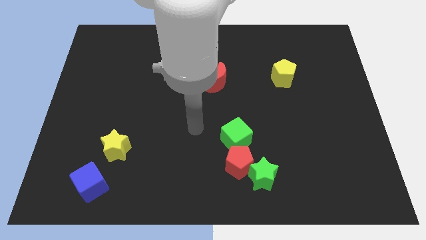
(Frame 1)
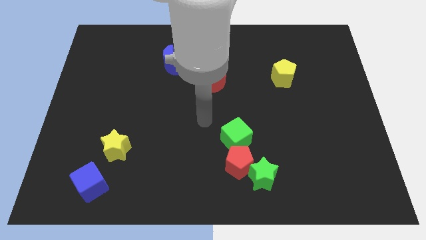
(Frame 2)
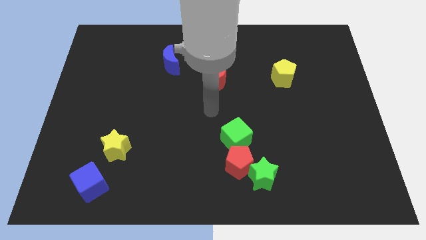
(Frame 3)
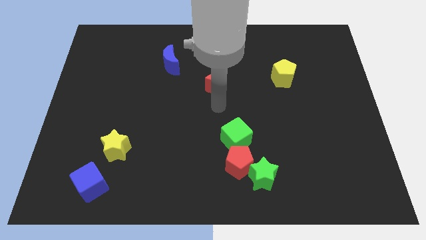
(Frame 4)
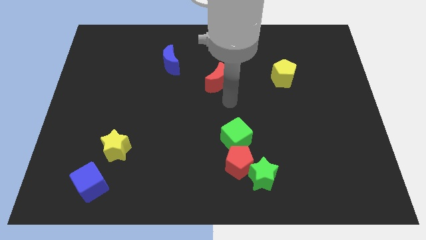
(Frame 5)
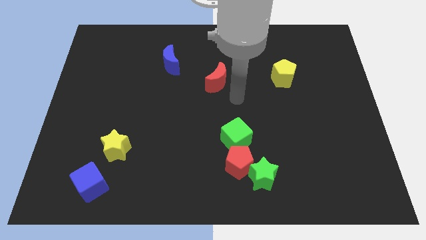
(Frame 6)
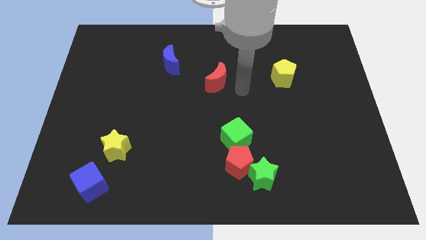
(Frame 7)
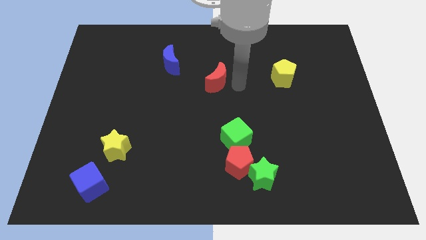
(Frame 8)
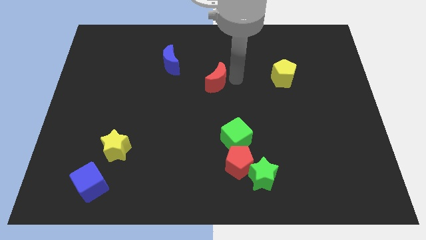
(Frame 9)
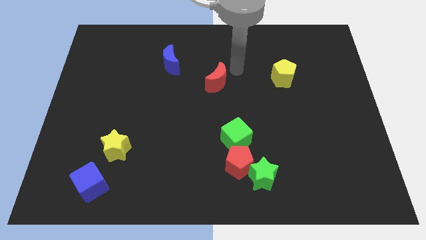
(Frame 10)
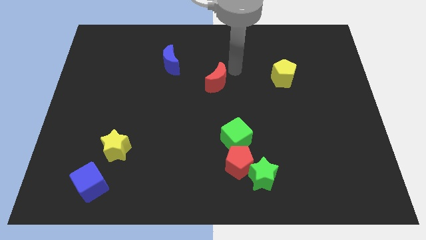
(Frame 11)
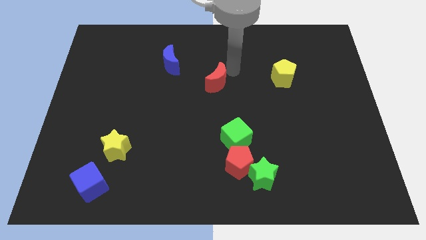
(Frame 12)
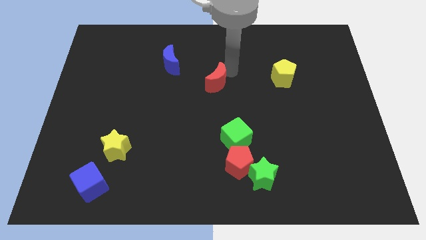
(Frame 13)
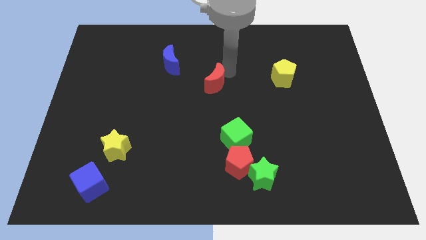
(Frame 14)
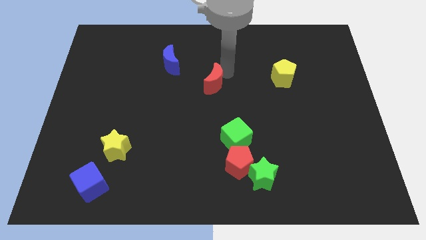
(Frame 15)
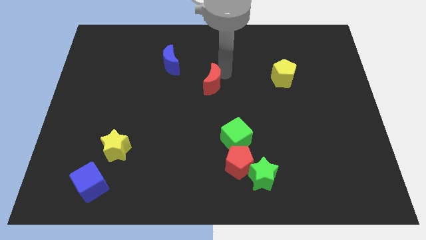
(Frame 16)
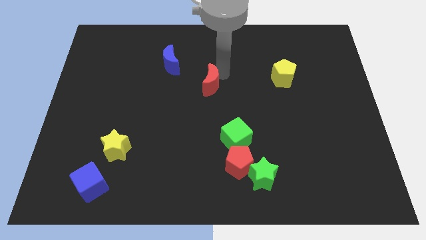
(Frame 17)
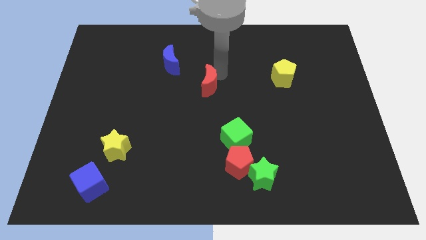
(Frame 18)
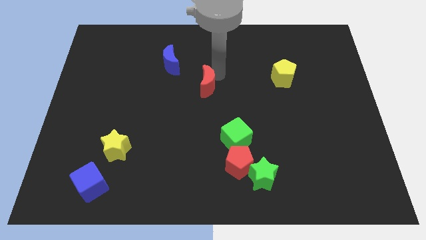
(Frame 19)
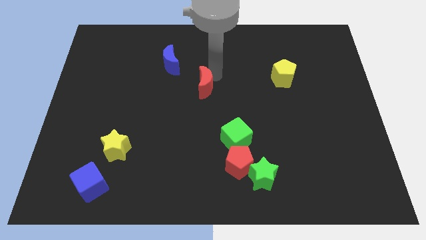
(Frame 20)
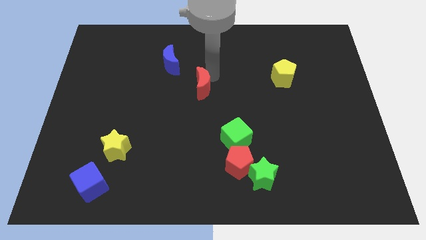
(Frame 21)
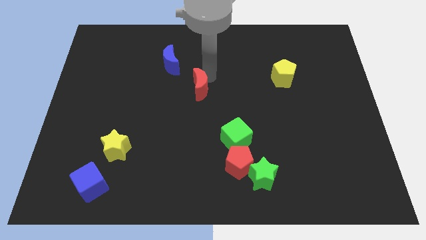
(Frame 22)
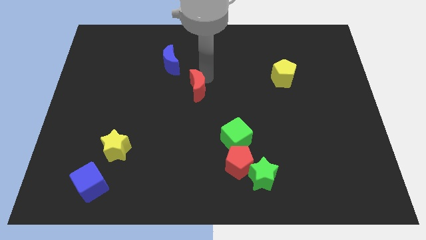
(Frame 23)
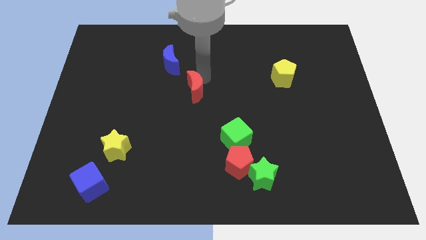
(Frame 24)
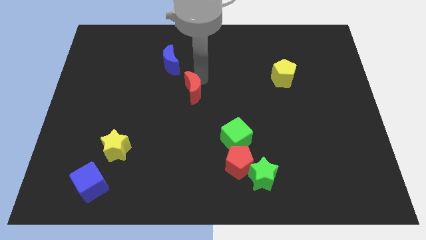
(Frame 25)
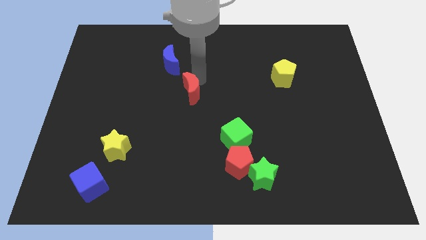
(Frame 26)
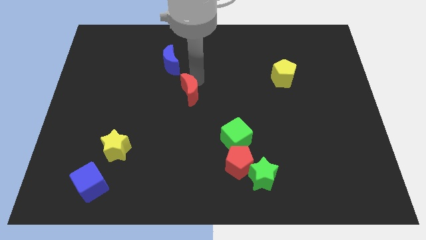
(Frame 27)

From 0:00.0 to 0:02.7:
slide the red moon down and left a little bit

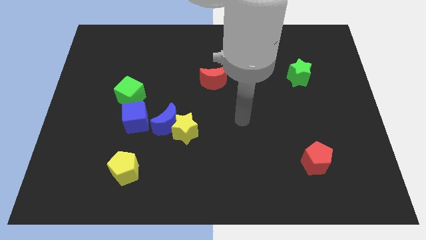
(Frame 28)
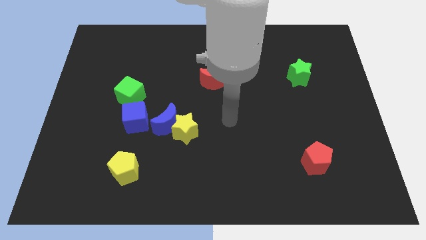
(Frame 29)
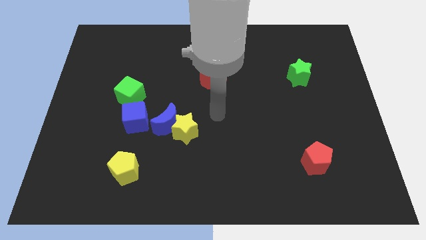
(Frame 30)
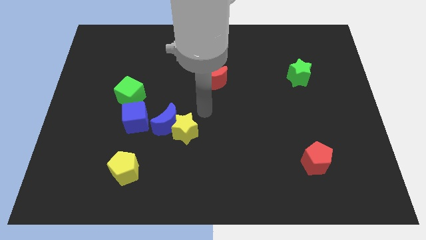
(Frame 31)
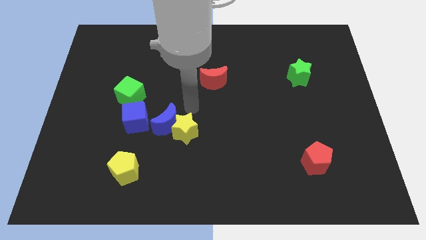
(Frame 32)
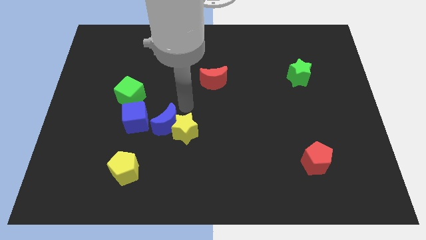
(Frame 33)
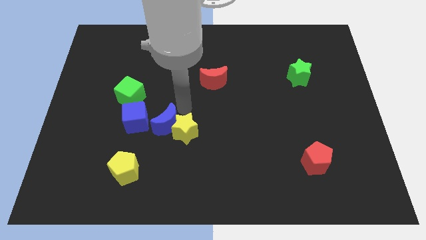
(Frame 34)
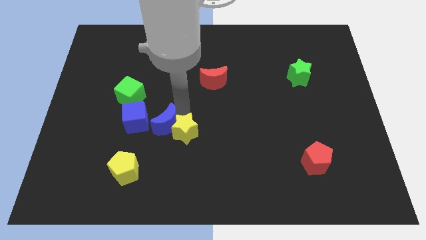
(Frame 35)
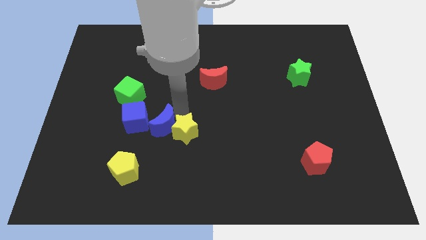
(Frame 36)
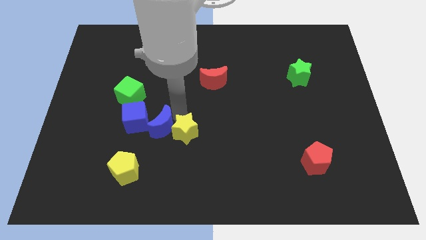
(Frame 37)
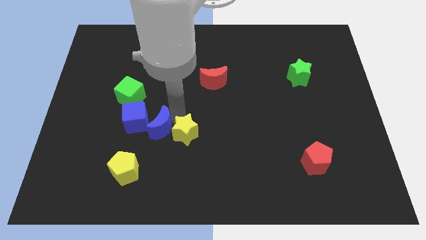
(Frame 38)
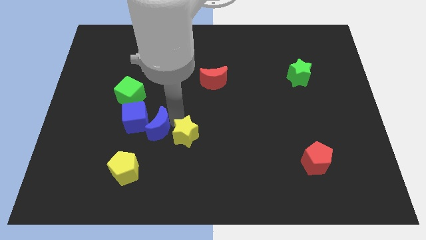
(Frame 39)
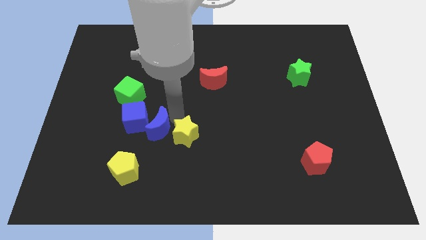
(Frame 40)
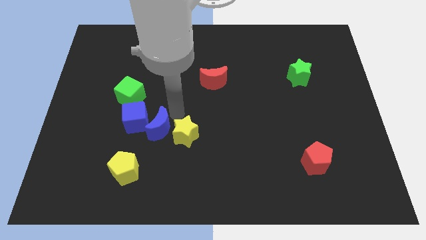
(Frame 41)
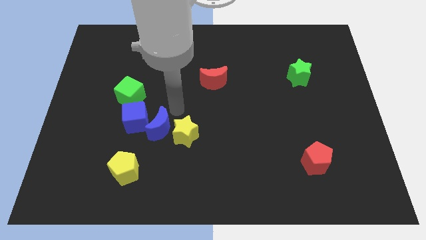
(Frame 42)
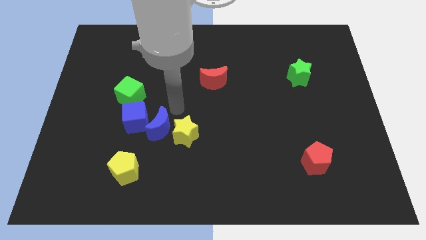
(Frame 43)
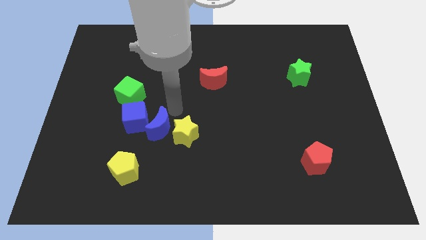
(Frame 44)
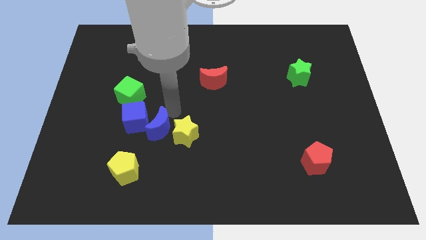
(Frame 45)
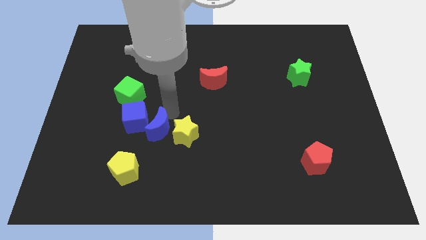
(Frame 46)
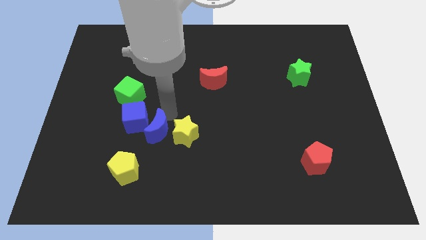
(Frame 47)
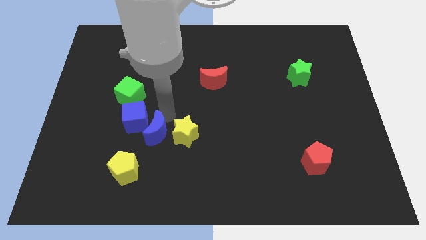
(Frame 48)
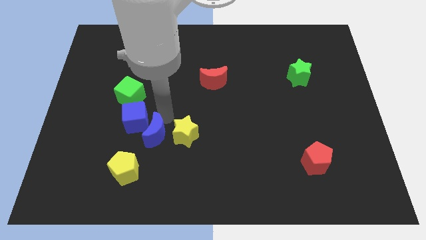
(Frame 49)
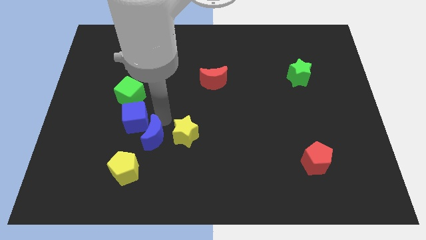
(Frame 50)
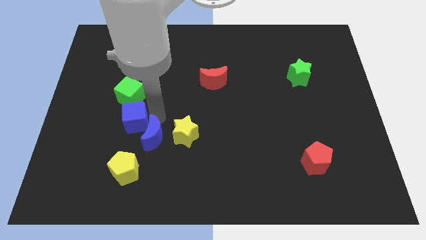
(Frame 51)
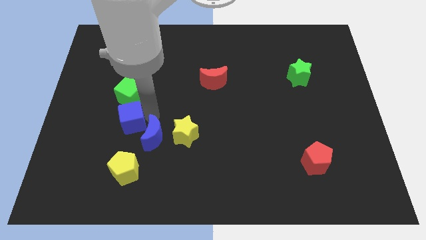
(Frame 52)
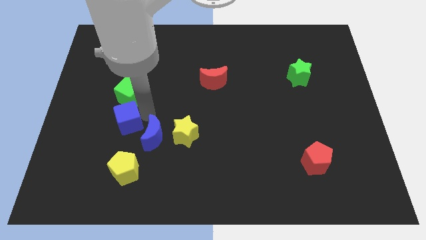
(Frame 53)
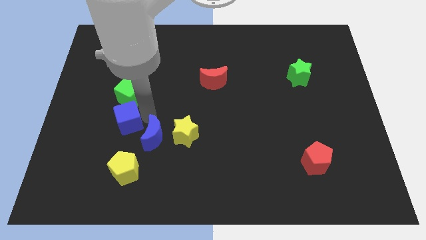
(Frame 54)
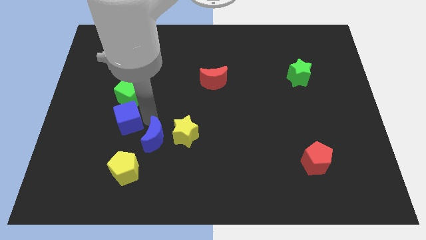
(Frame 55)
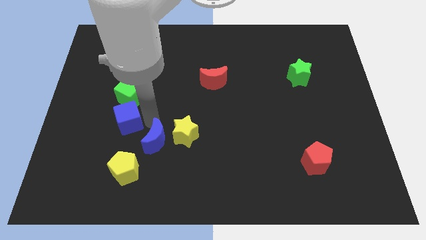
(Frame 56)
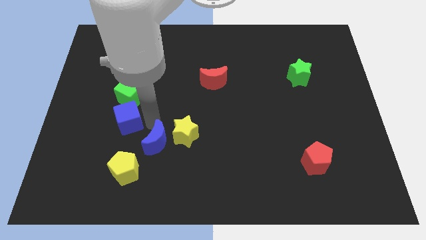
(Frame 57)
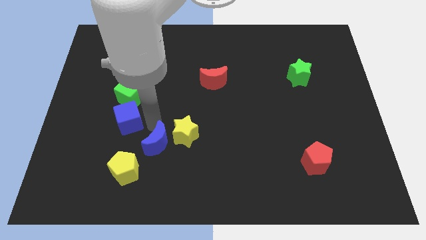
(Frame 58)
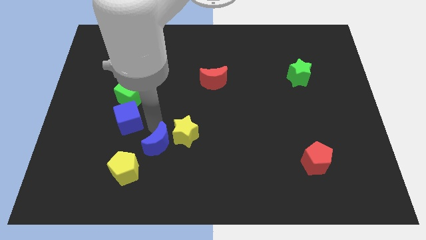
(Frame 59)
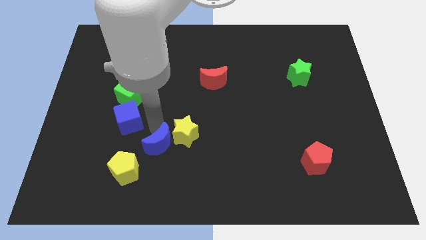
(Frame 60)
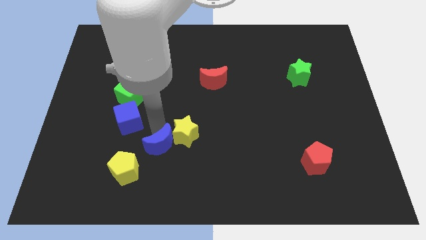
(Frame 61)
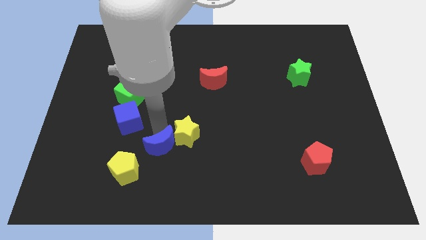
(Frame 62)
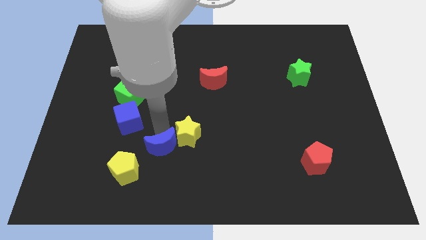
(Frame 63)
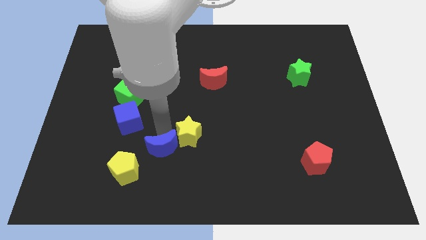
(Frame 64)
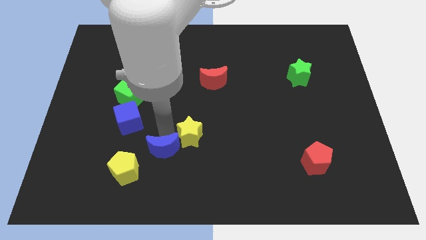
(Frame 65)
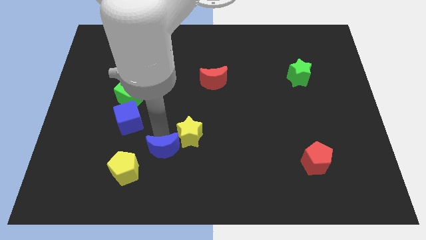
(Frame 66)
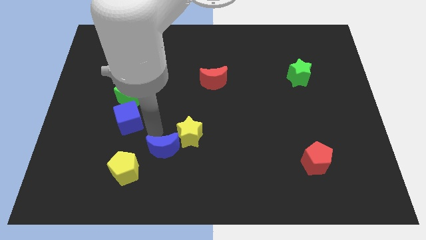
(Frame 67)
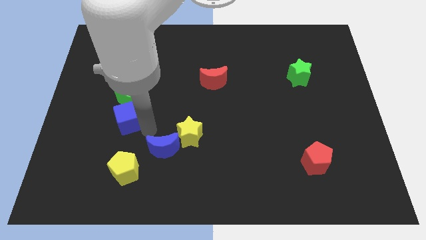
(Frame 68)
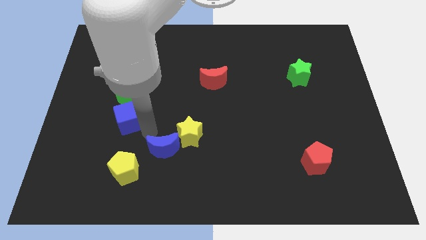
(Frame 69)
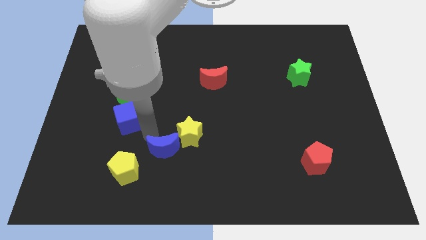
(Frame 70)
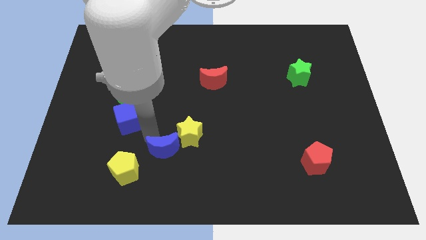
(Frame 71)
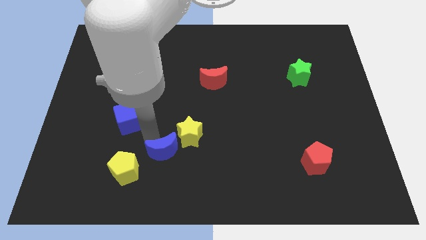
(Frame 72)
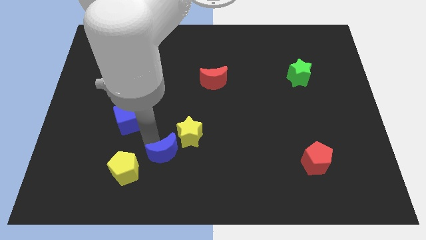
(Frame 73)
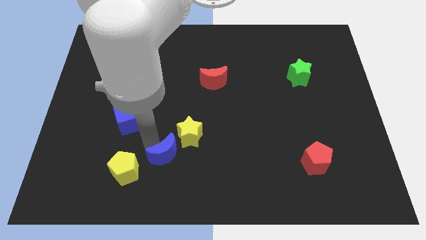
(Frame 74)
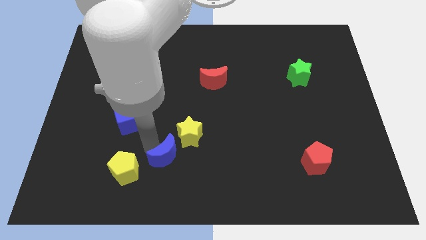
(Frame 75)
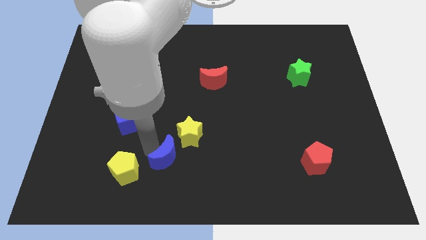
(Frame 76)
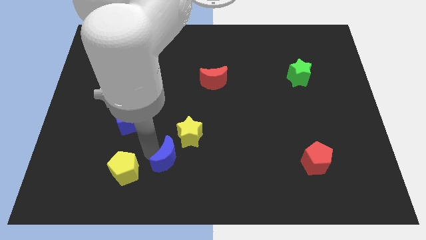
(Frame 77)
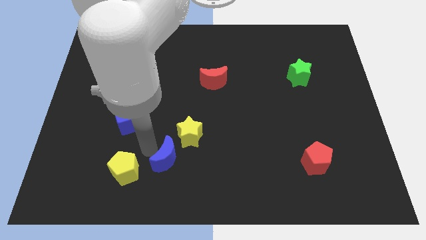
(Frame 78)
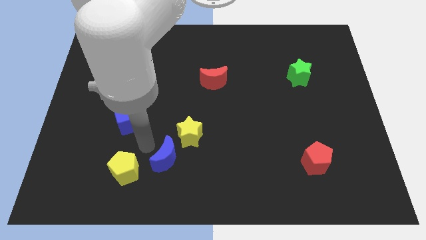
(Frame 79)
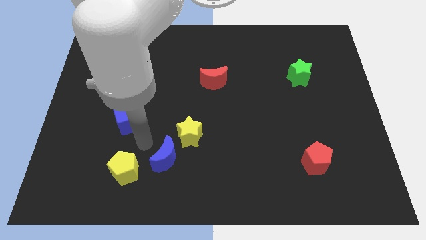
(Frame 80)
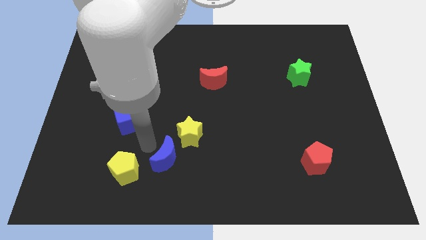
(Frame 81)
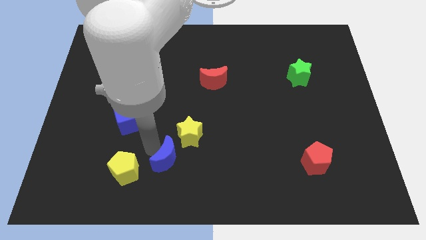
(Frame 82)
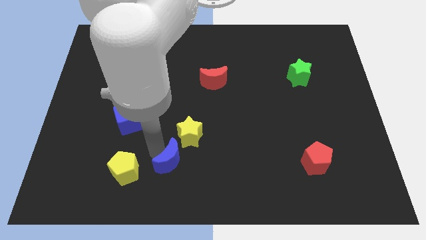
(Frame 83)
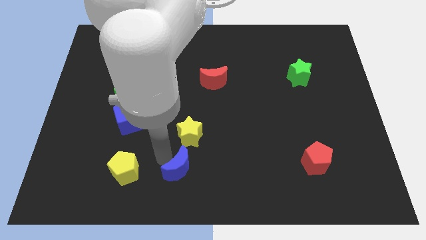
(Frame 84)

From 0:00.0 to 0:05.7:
push the blue moon downwards and then right a bit
